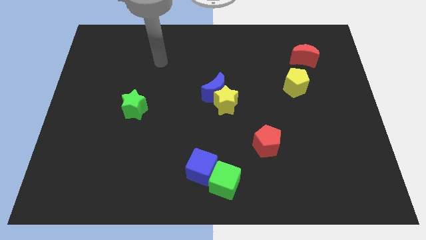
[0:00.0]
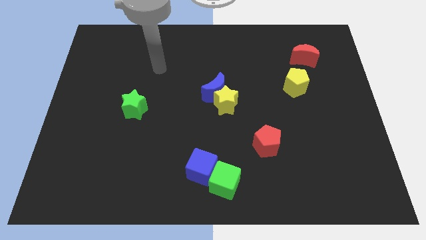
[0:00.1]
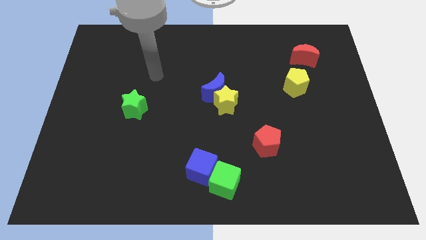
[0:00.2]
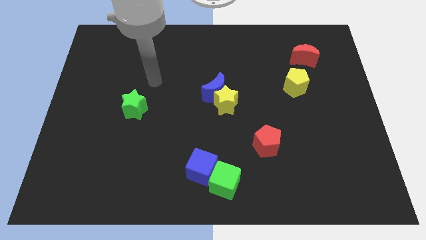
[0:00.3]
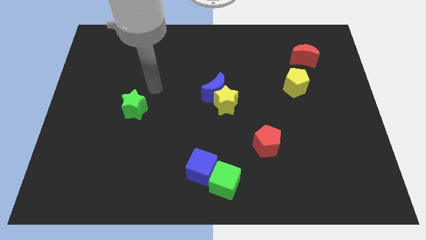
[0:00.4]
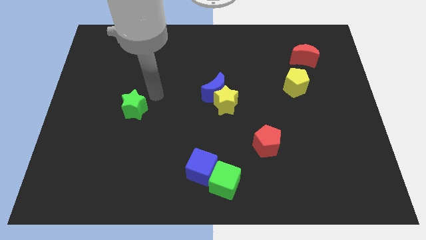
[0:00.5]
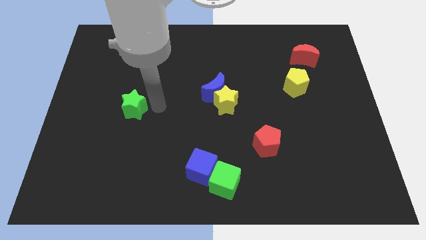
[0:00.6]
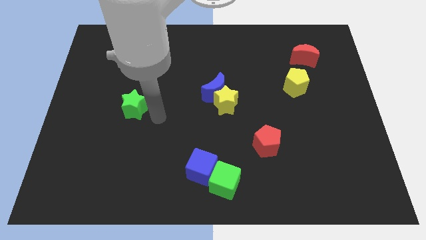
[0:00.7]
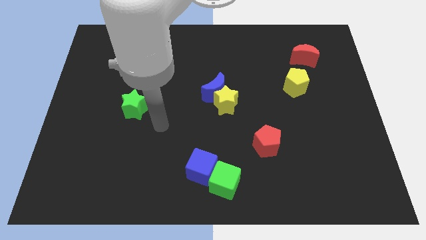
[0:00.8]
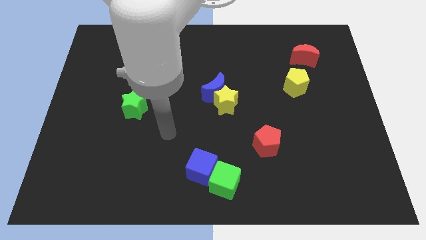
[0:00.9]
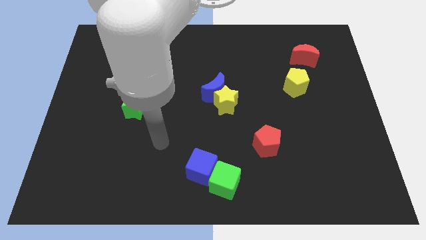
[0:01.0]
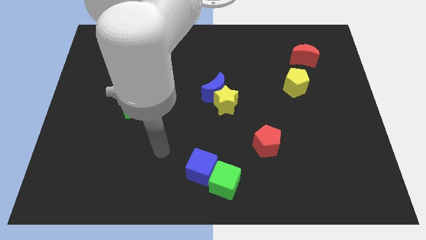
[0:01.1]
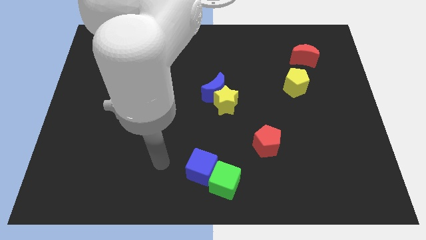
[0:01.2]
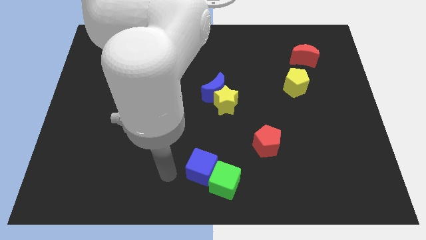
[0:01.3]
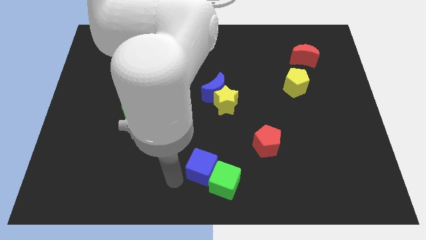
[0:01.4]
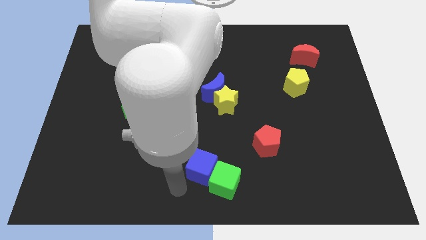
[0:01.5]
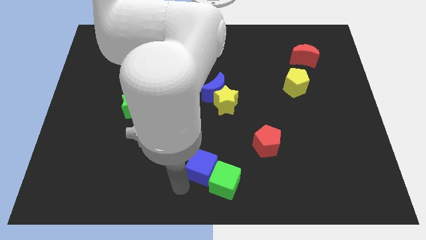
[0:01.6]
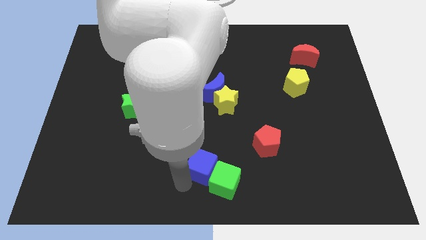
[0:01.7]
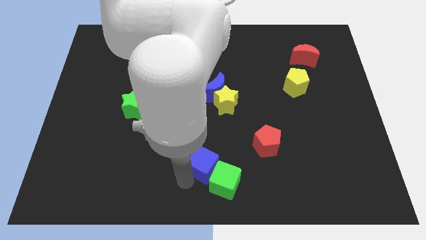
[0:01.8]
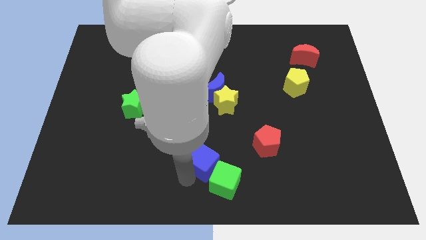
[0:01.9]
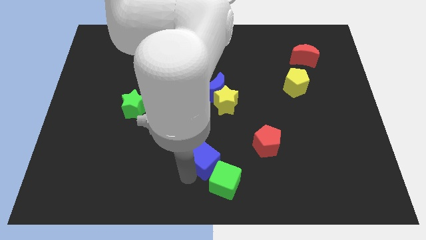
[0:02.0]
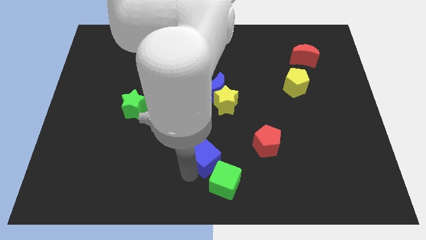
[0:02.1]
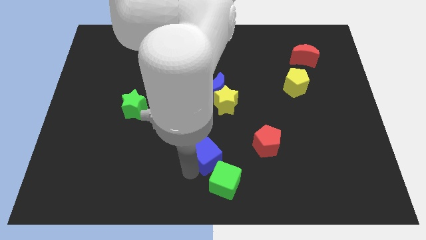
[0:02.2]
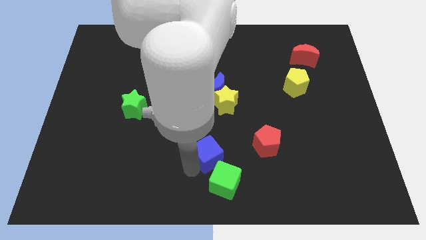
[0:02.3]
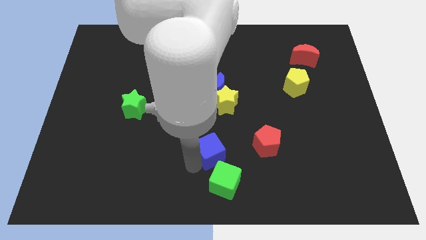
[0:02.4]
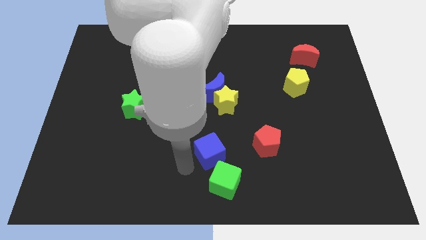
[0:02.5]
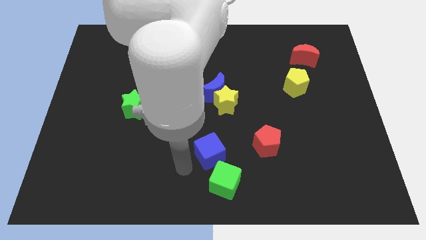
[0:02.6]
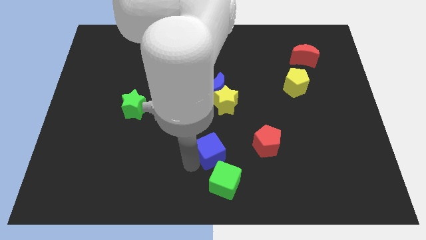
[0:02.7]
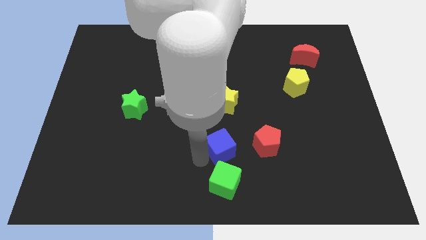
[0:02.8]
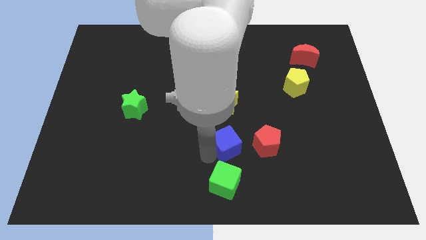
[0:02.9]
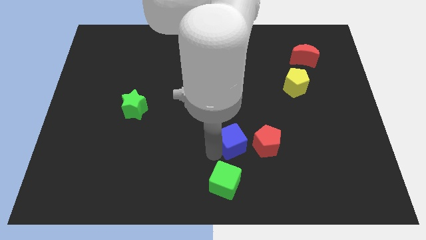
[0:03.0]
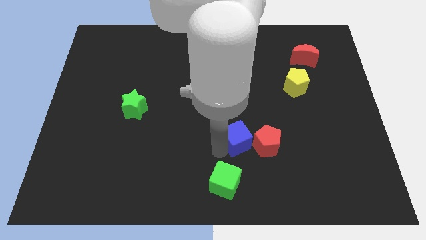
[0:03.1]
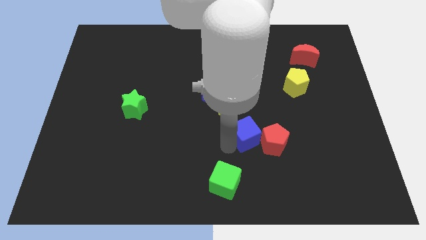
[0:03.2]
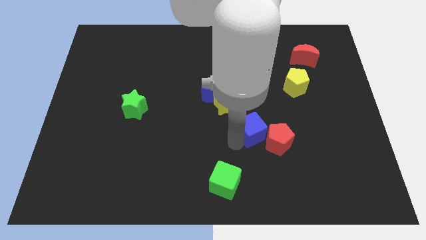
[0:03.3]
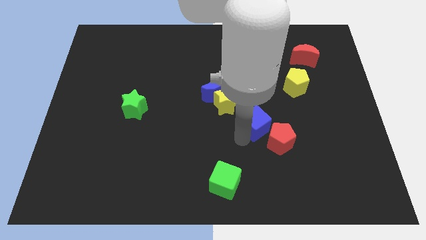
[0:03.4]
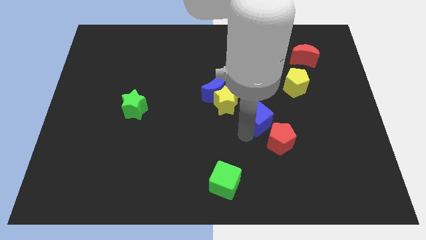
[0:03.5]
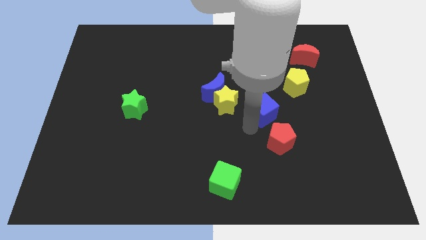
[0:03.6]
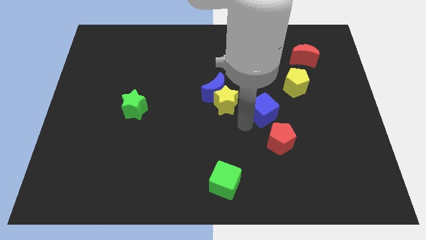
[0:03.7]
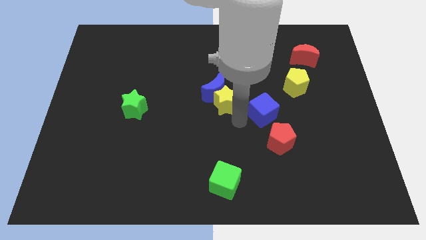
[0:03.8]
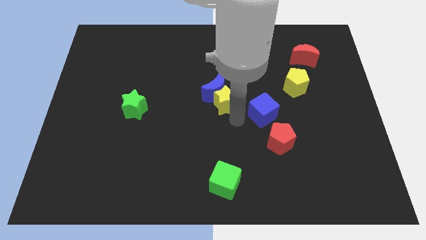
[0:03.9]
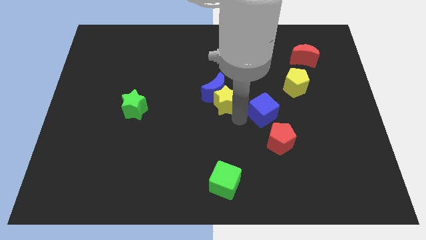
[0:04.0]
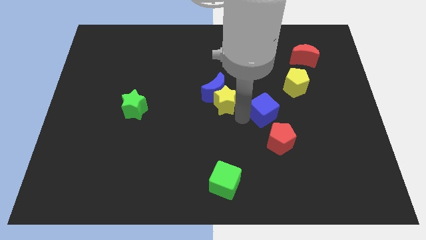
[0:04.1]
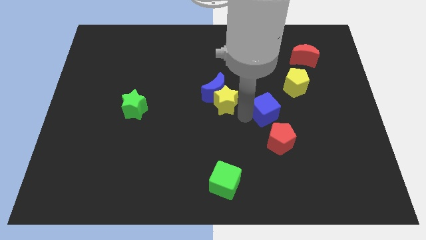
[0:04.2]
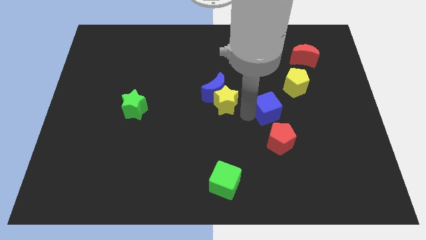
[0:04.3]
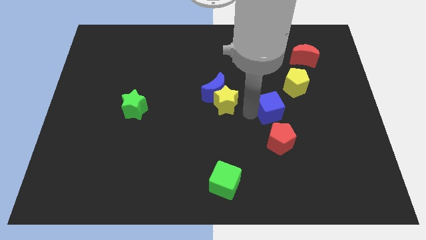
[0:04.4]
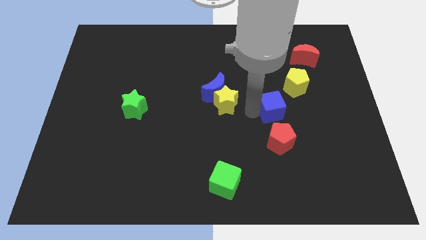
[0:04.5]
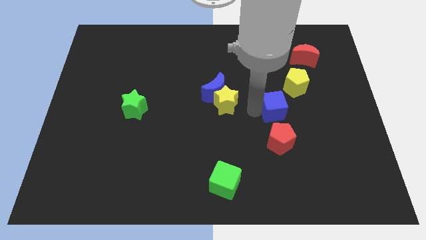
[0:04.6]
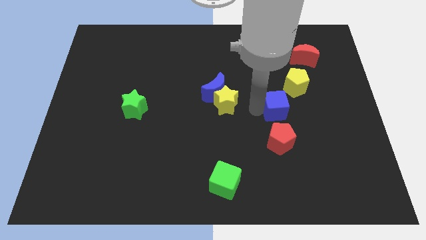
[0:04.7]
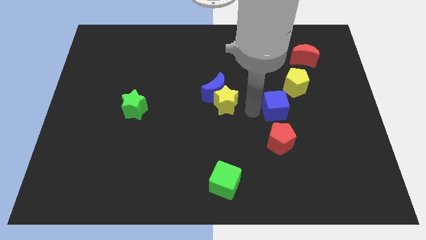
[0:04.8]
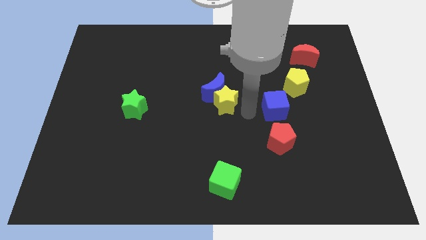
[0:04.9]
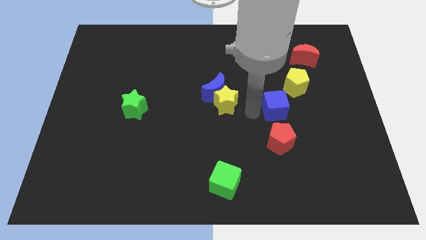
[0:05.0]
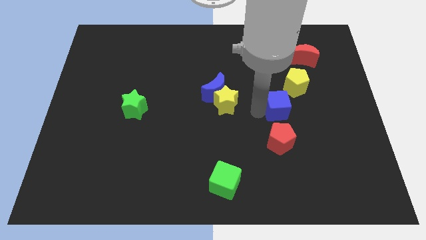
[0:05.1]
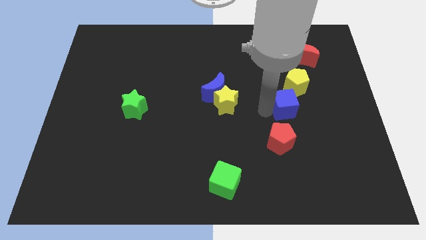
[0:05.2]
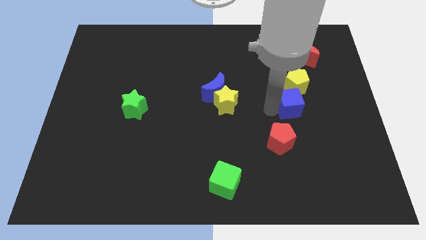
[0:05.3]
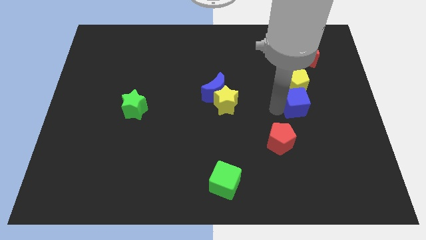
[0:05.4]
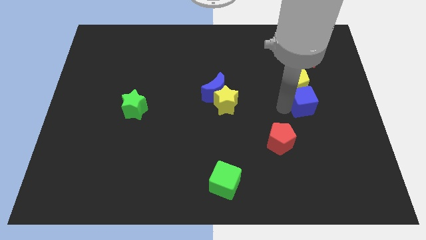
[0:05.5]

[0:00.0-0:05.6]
slide the blue cube to the bottom right of the yellow pentagon

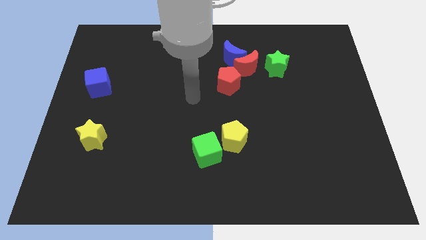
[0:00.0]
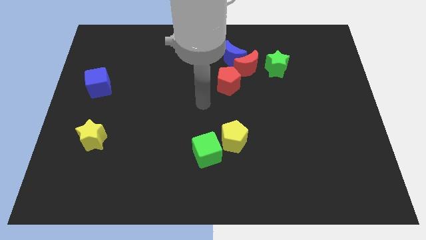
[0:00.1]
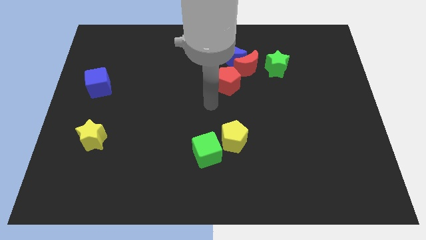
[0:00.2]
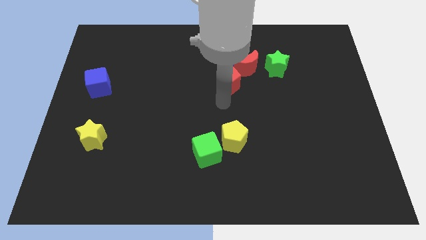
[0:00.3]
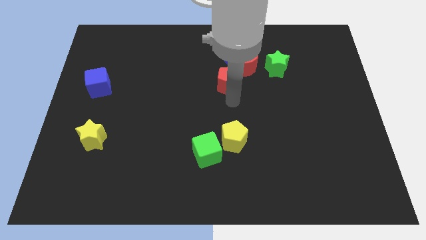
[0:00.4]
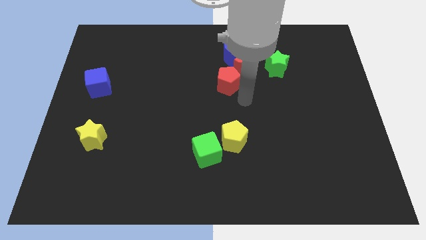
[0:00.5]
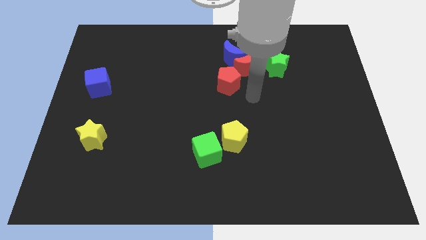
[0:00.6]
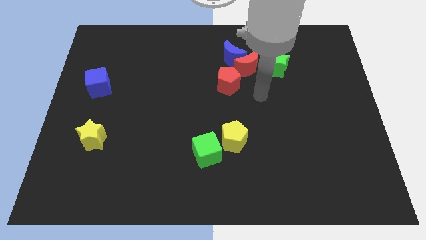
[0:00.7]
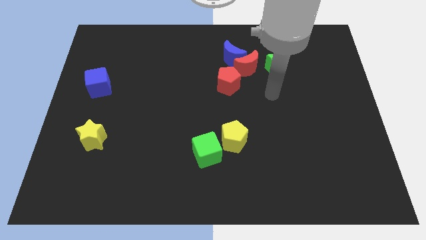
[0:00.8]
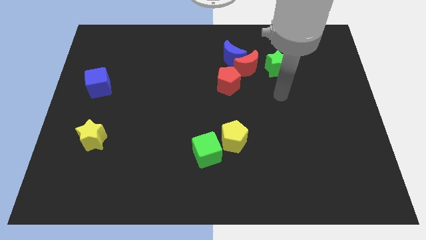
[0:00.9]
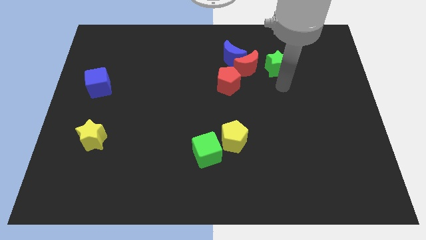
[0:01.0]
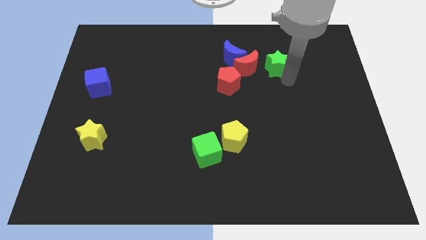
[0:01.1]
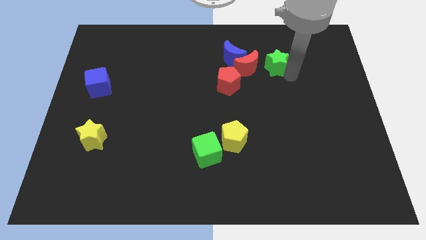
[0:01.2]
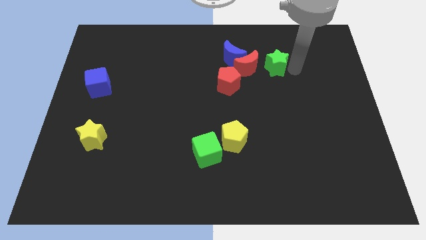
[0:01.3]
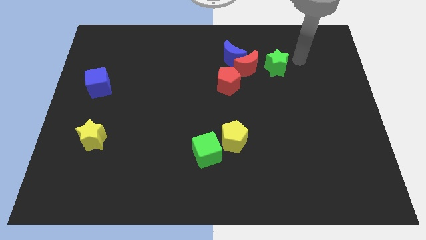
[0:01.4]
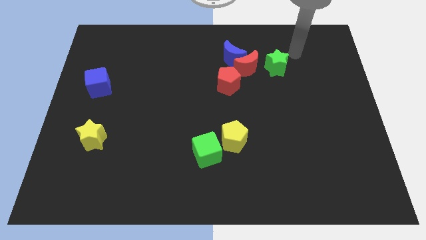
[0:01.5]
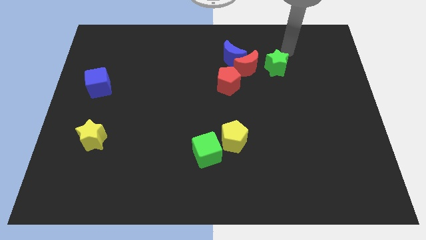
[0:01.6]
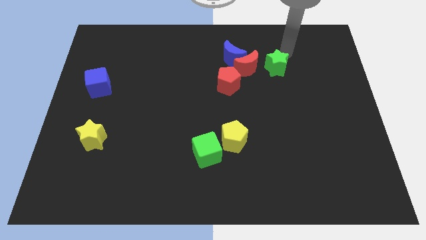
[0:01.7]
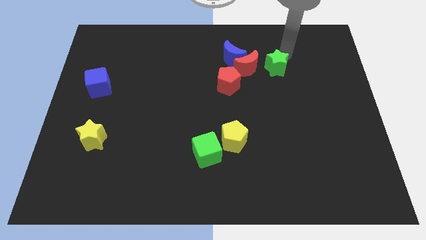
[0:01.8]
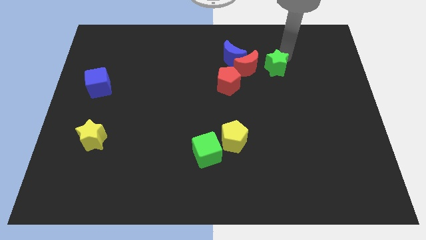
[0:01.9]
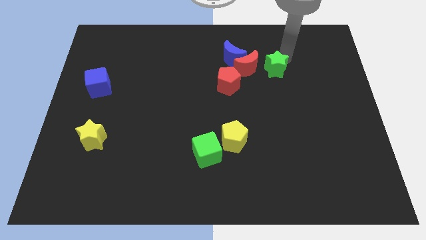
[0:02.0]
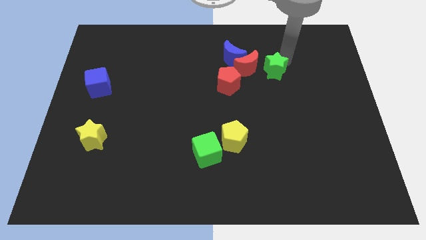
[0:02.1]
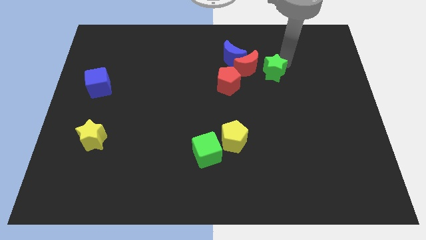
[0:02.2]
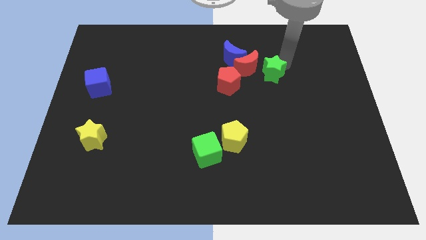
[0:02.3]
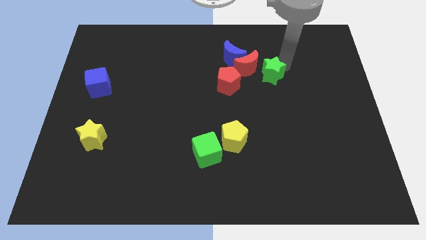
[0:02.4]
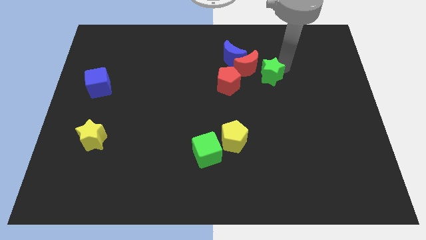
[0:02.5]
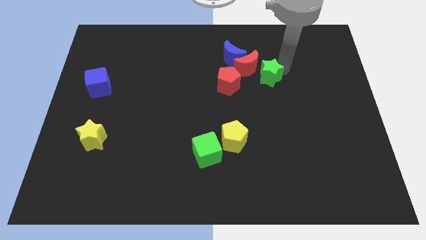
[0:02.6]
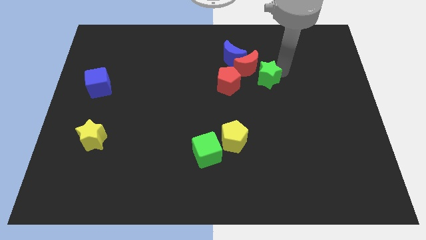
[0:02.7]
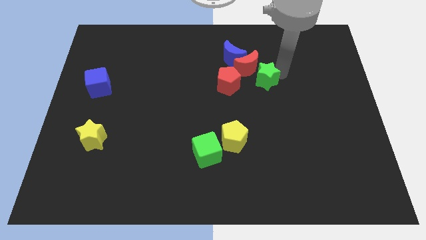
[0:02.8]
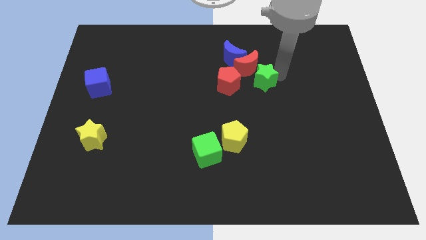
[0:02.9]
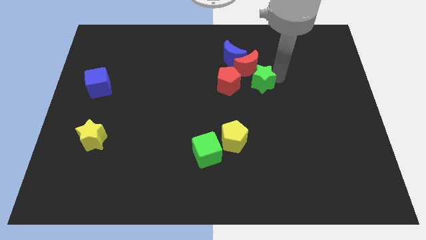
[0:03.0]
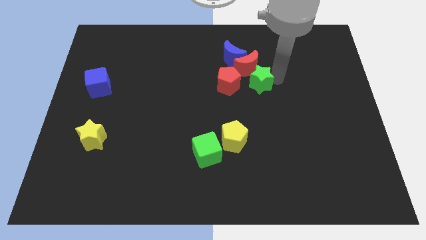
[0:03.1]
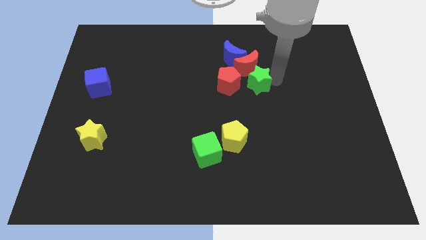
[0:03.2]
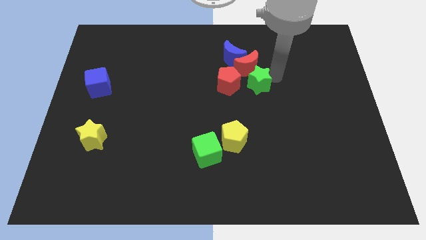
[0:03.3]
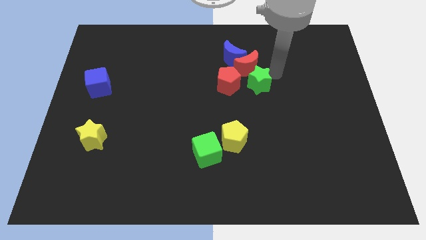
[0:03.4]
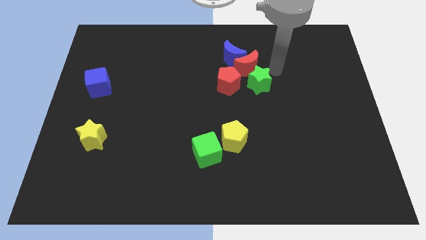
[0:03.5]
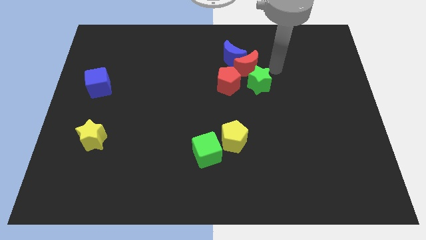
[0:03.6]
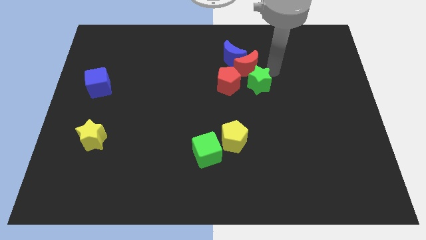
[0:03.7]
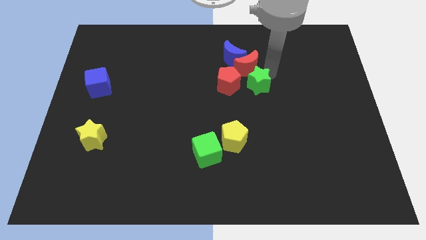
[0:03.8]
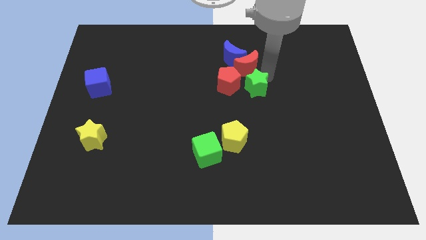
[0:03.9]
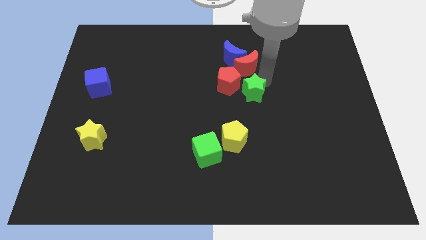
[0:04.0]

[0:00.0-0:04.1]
move the green star below the blue moon
